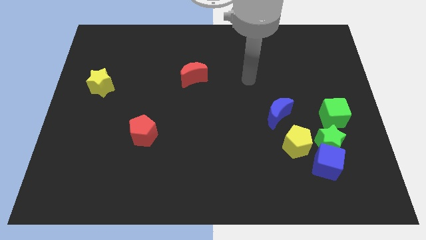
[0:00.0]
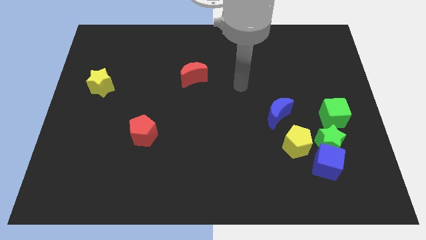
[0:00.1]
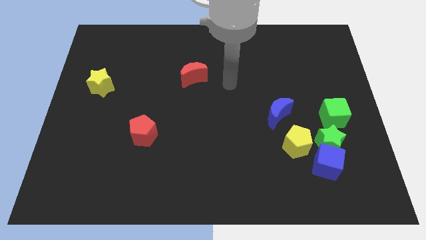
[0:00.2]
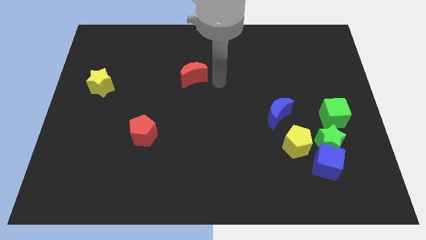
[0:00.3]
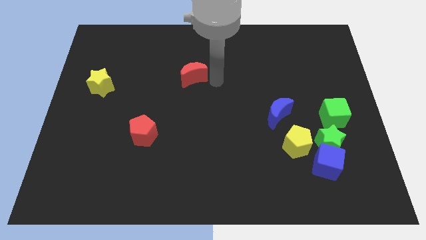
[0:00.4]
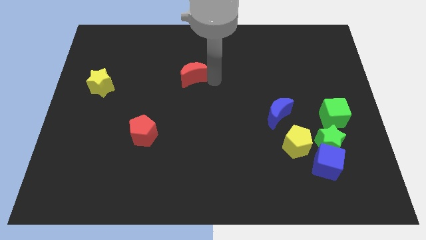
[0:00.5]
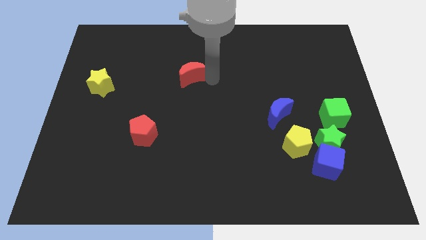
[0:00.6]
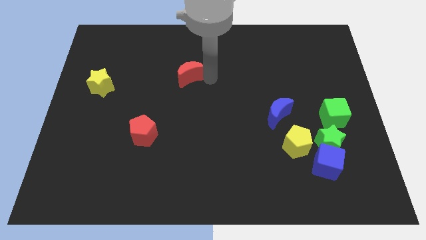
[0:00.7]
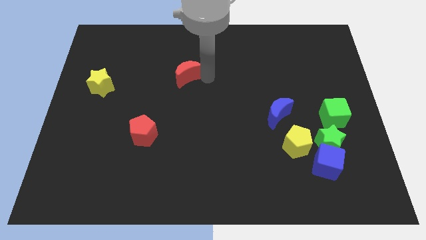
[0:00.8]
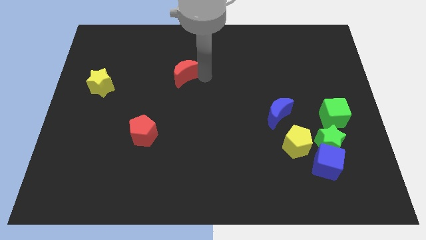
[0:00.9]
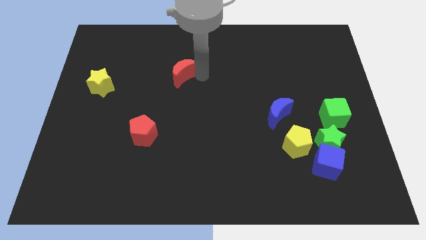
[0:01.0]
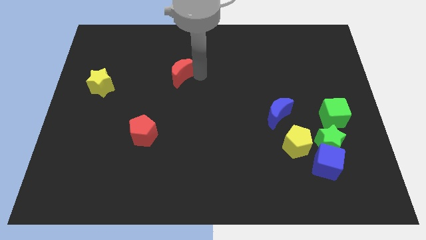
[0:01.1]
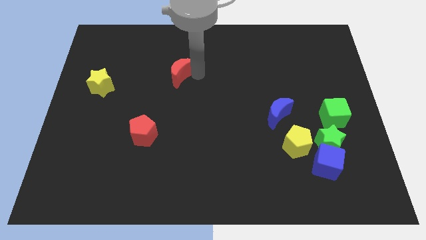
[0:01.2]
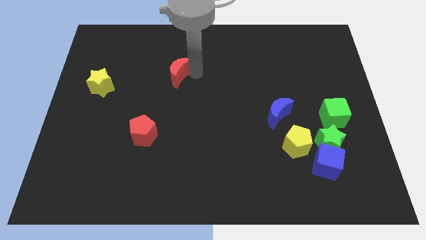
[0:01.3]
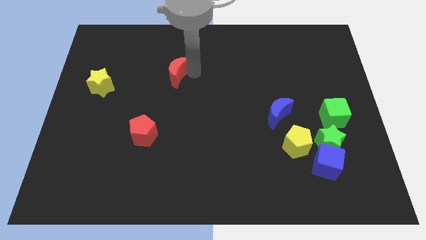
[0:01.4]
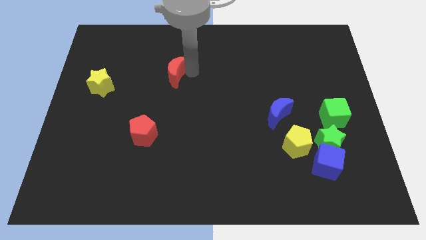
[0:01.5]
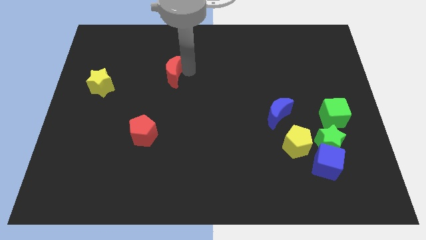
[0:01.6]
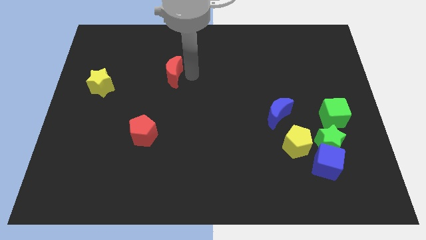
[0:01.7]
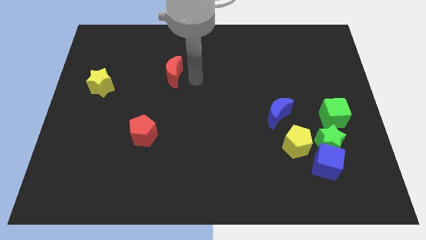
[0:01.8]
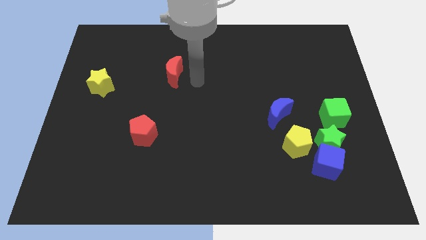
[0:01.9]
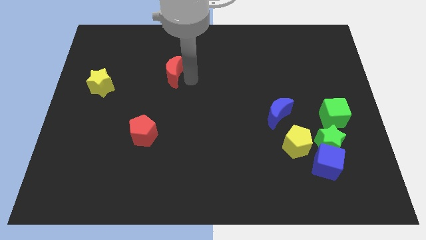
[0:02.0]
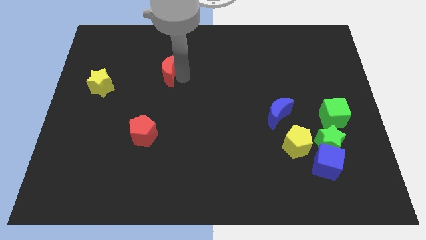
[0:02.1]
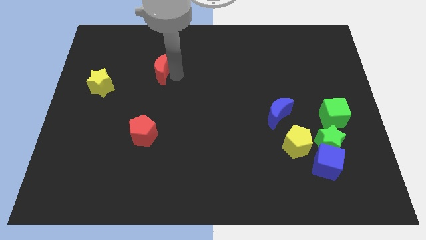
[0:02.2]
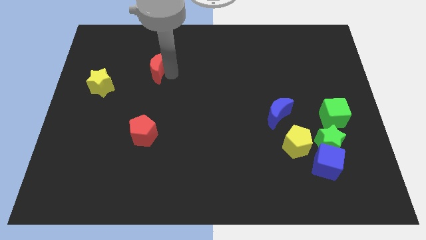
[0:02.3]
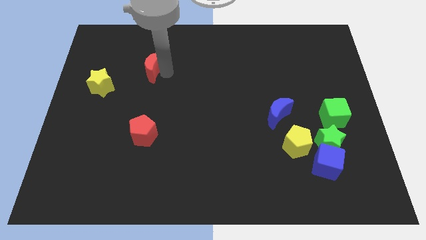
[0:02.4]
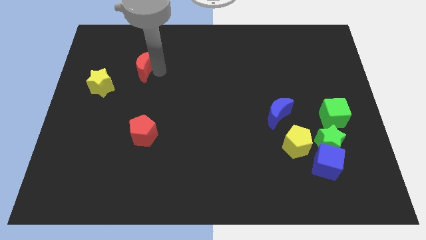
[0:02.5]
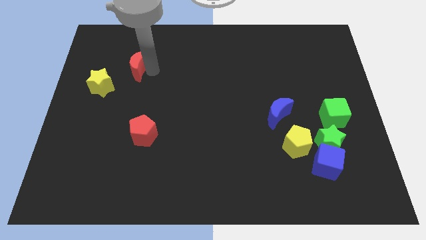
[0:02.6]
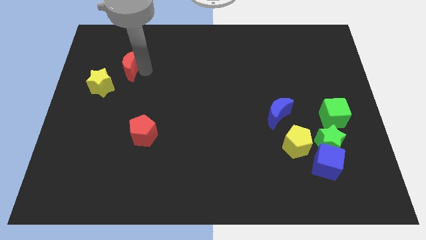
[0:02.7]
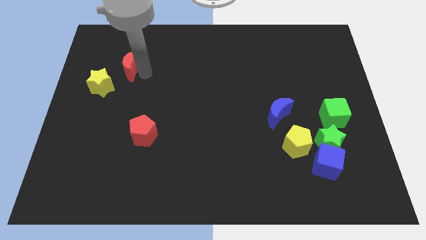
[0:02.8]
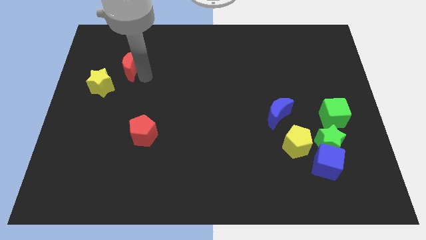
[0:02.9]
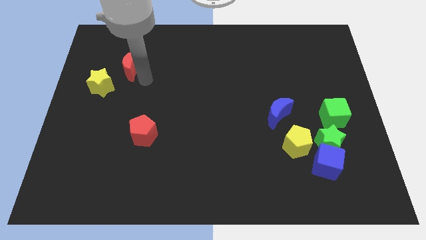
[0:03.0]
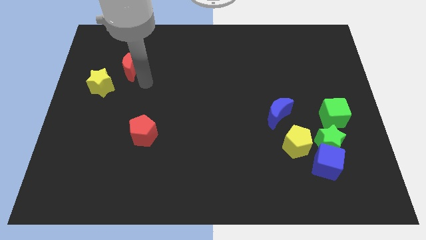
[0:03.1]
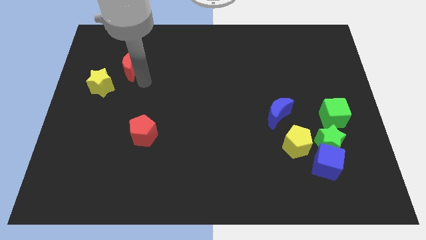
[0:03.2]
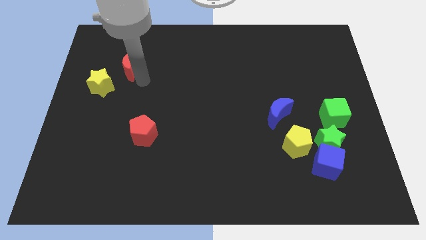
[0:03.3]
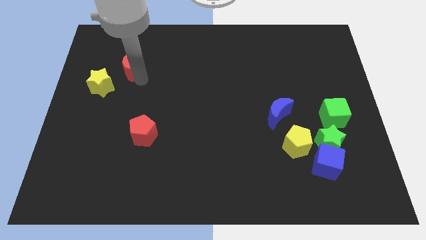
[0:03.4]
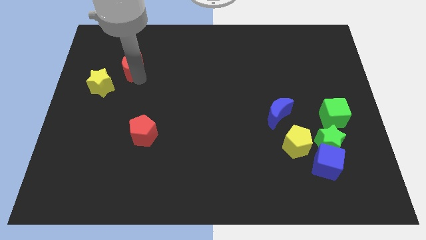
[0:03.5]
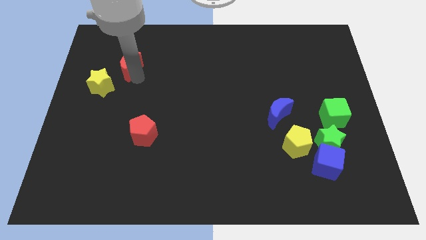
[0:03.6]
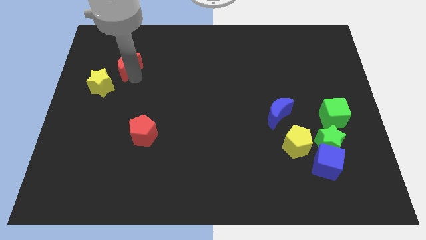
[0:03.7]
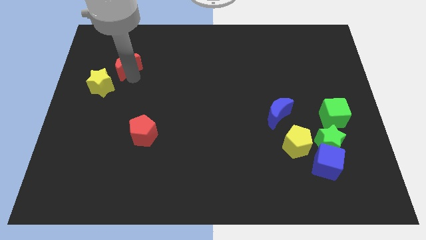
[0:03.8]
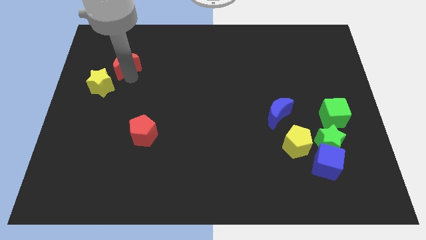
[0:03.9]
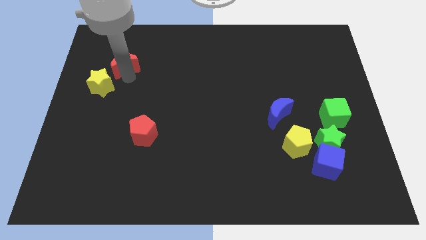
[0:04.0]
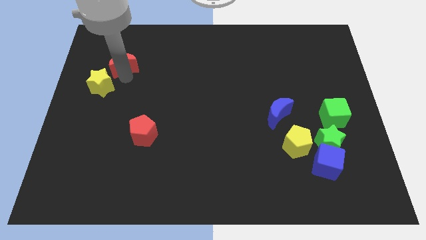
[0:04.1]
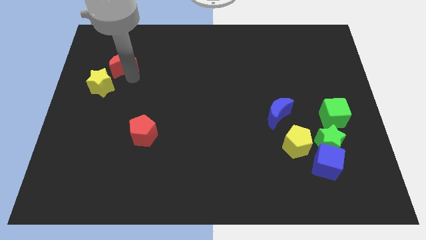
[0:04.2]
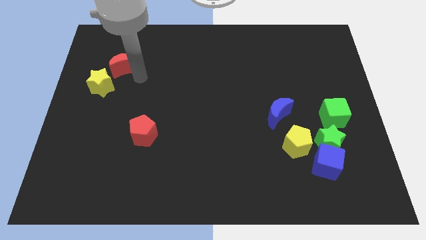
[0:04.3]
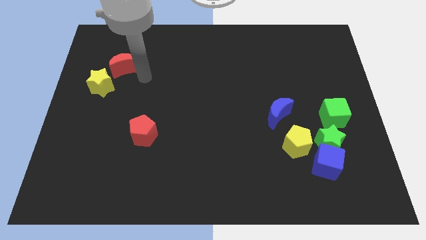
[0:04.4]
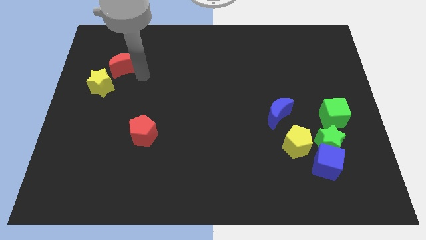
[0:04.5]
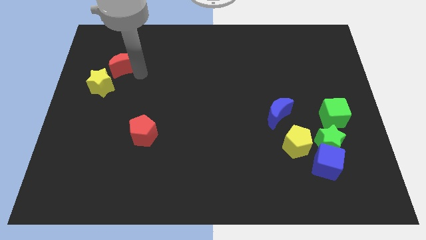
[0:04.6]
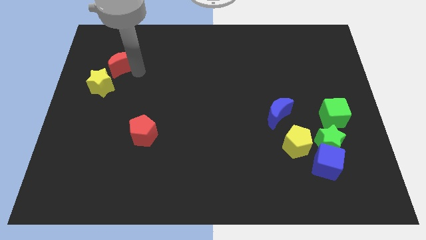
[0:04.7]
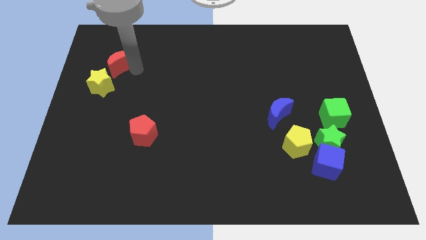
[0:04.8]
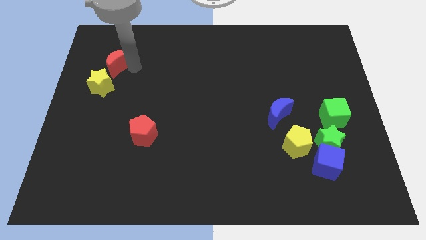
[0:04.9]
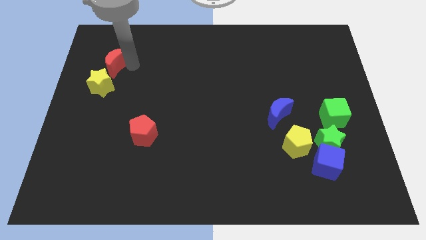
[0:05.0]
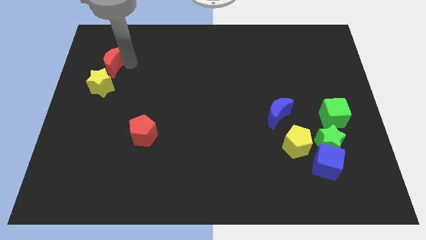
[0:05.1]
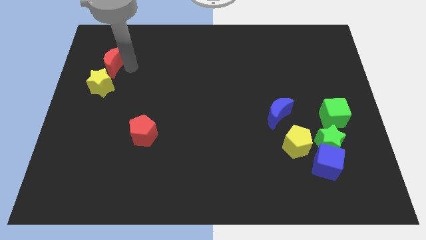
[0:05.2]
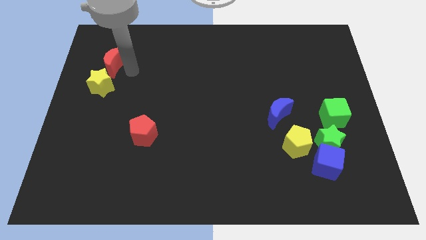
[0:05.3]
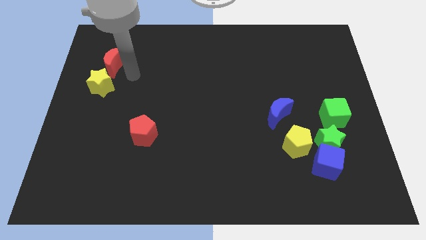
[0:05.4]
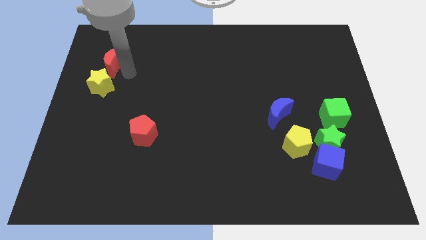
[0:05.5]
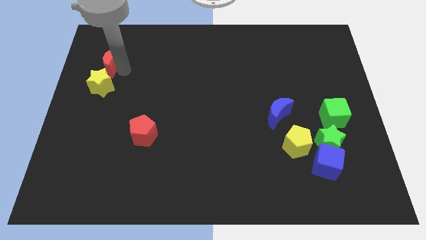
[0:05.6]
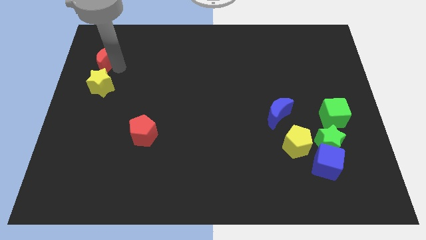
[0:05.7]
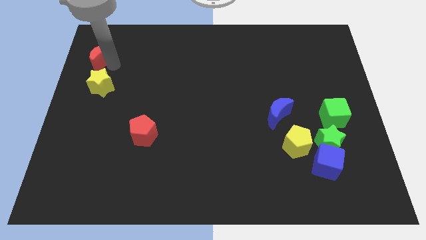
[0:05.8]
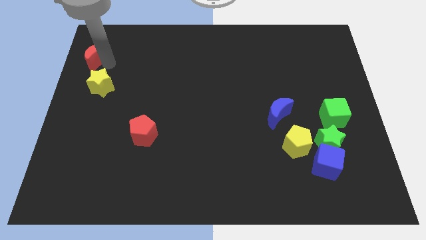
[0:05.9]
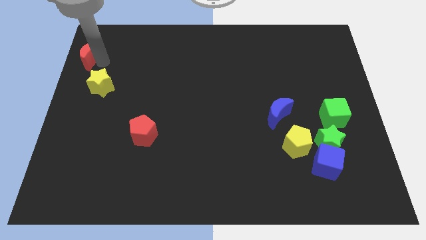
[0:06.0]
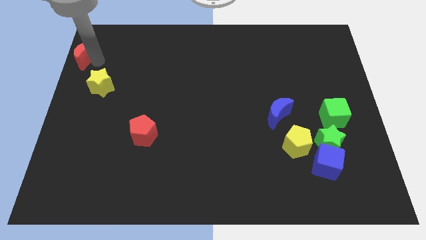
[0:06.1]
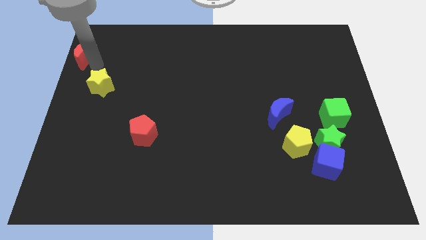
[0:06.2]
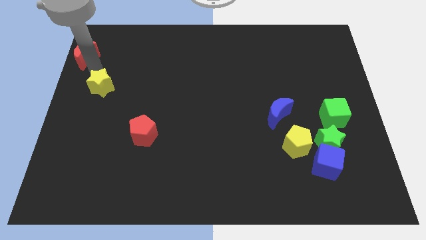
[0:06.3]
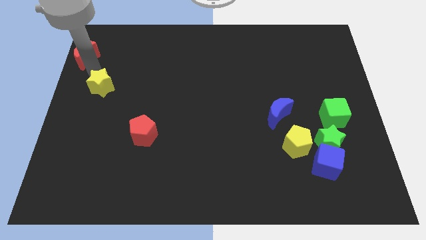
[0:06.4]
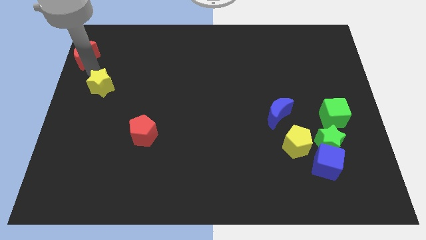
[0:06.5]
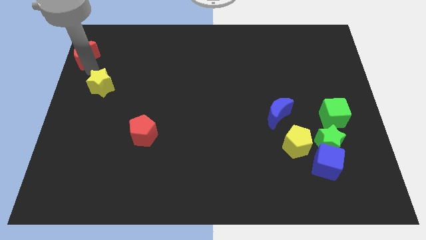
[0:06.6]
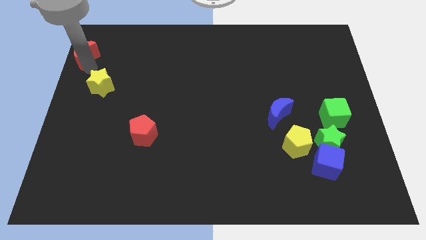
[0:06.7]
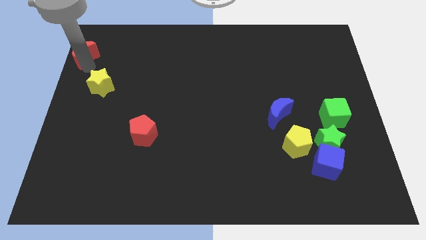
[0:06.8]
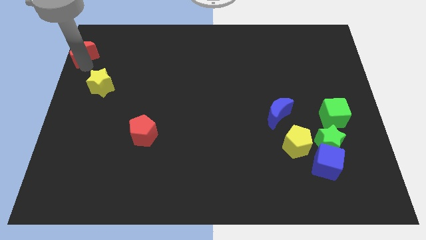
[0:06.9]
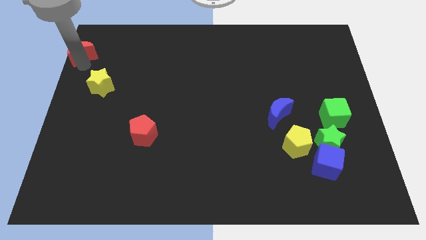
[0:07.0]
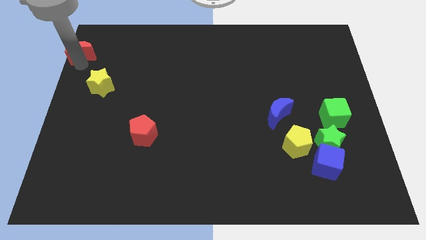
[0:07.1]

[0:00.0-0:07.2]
move the red moon to the top left
